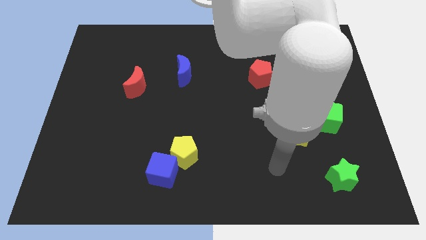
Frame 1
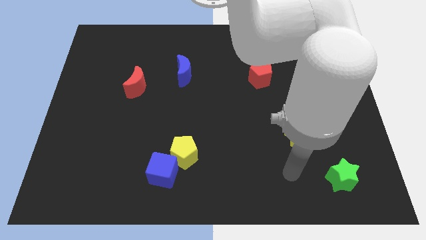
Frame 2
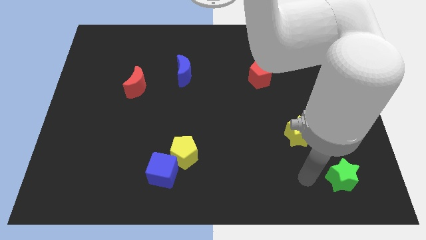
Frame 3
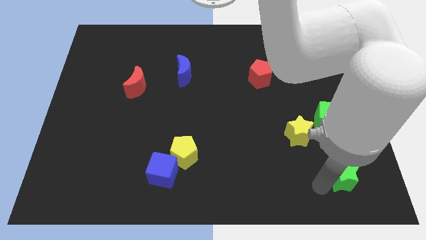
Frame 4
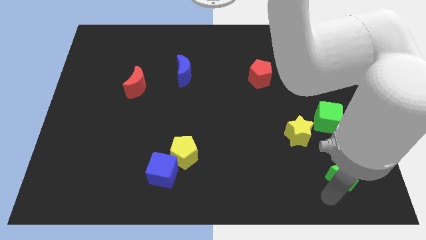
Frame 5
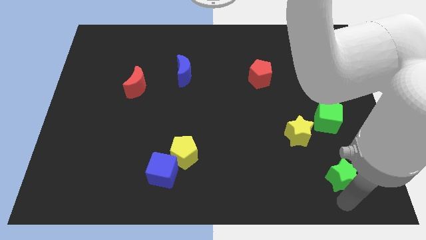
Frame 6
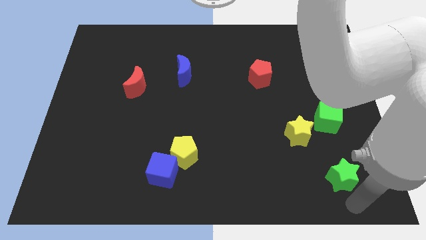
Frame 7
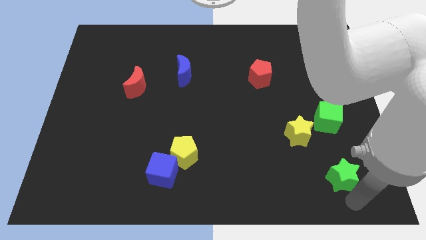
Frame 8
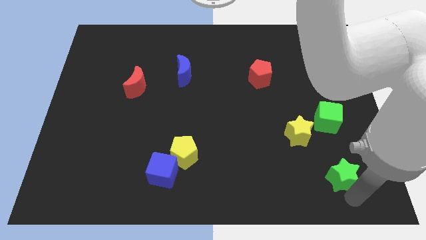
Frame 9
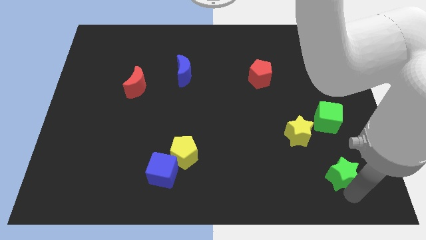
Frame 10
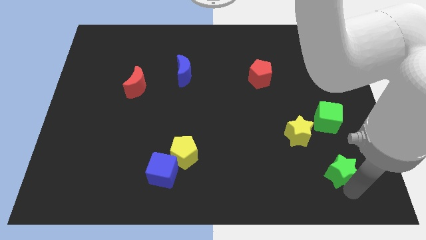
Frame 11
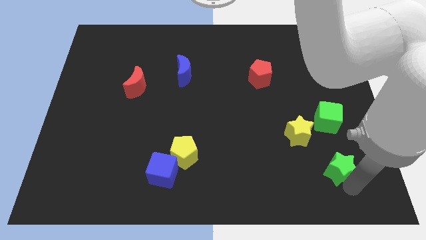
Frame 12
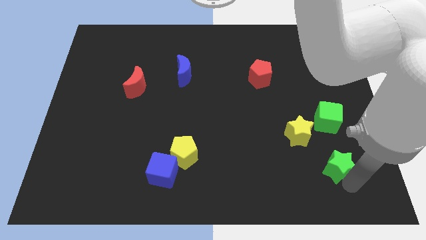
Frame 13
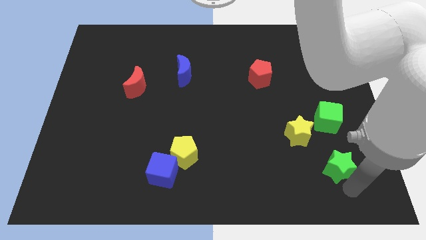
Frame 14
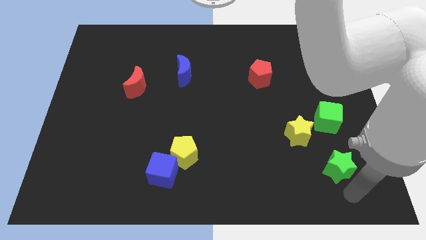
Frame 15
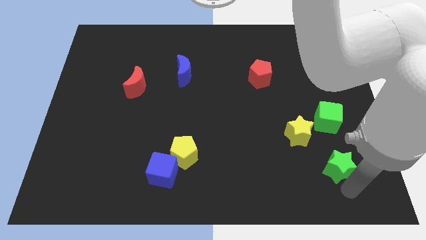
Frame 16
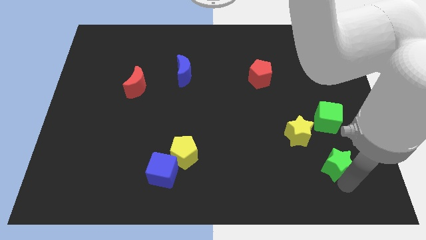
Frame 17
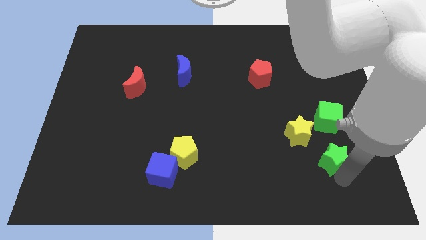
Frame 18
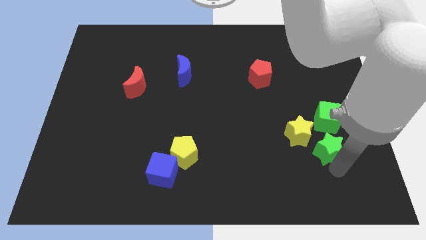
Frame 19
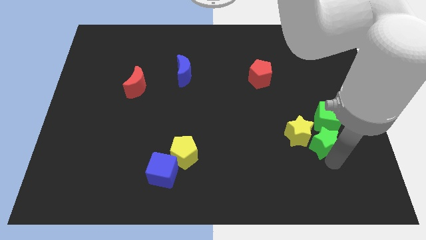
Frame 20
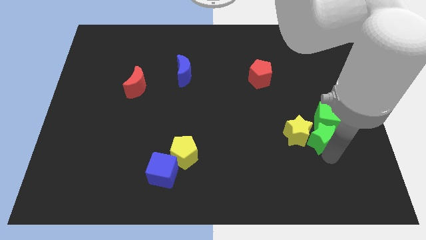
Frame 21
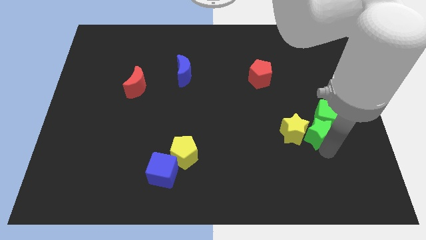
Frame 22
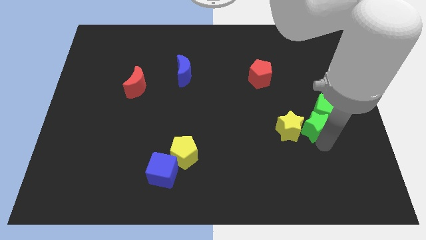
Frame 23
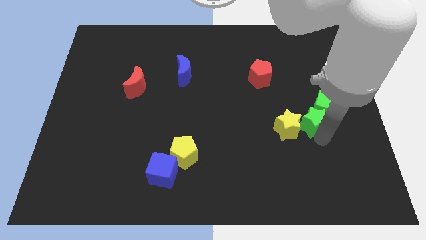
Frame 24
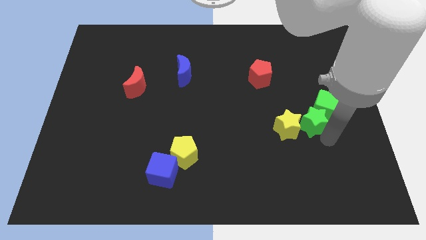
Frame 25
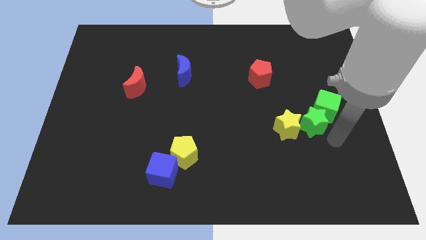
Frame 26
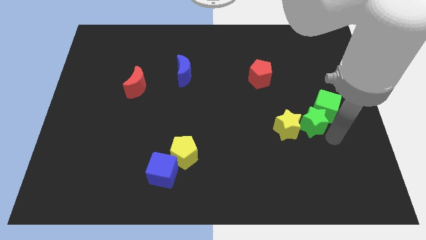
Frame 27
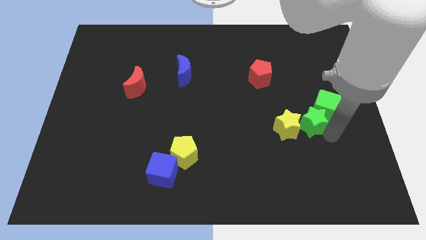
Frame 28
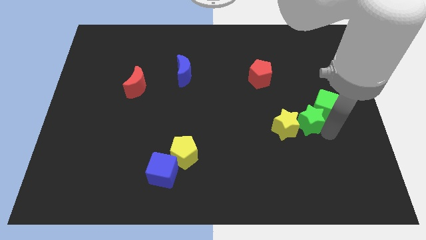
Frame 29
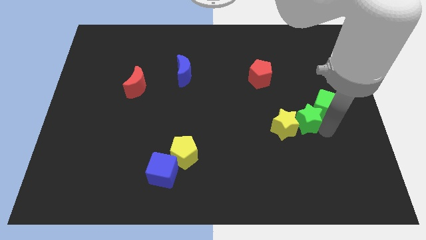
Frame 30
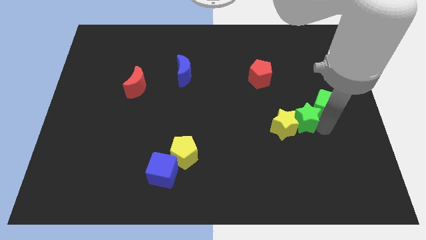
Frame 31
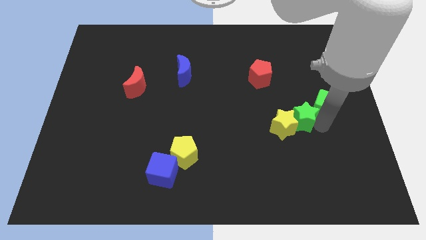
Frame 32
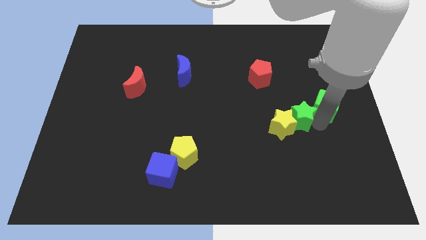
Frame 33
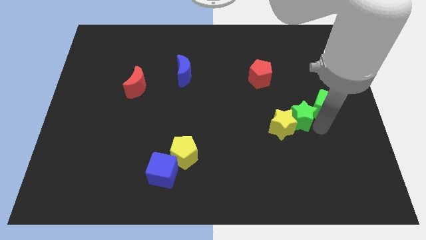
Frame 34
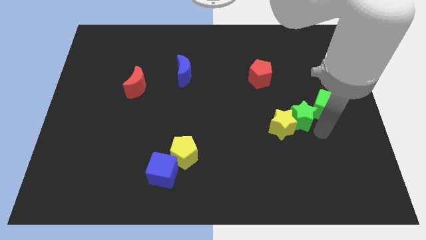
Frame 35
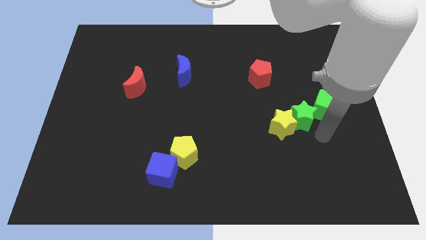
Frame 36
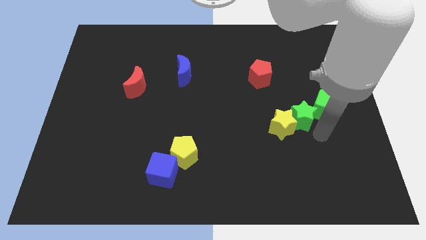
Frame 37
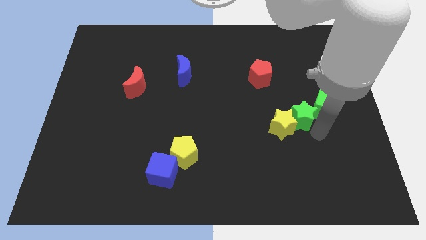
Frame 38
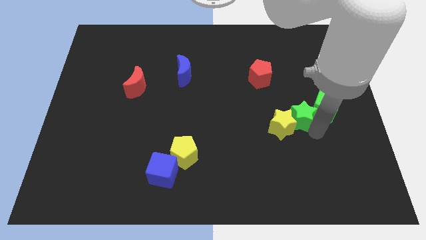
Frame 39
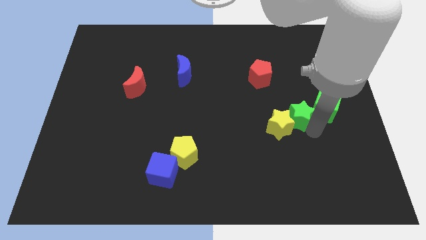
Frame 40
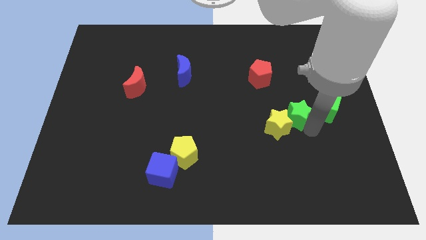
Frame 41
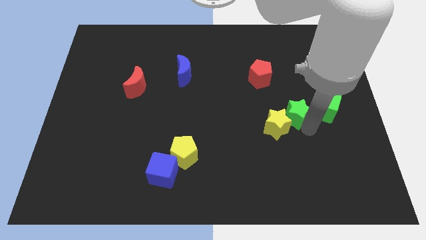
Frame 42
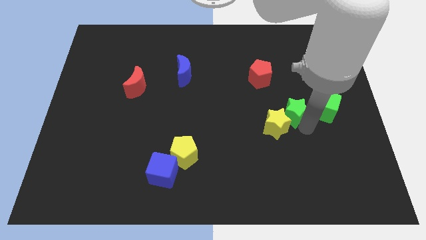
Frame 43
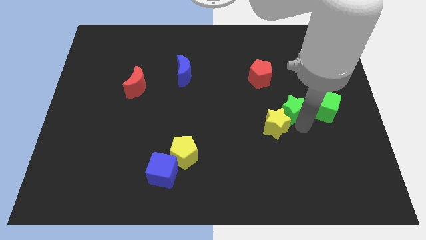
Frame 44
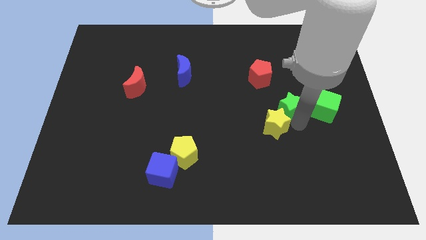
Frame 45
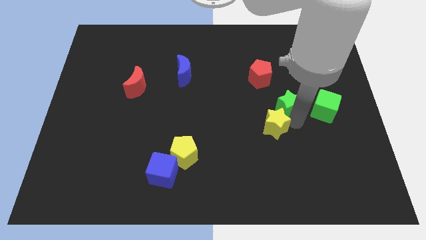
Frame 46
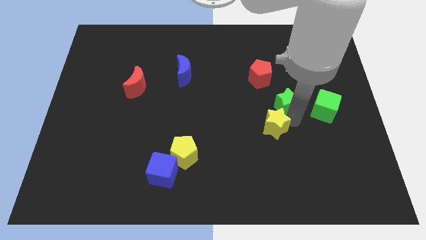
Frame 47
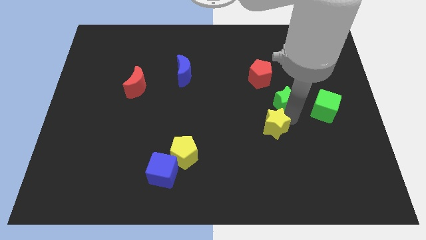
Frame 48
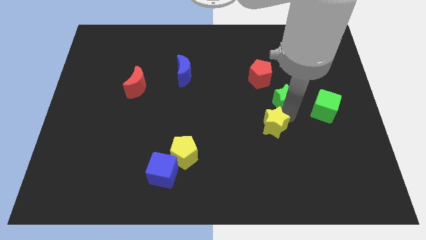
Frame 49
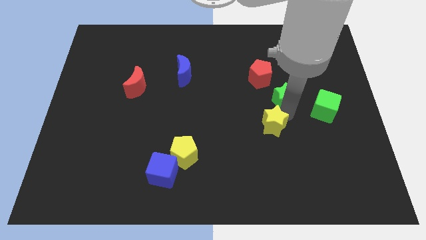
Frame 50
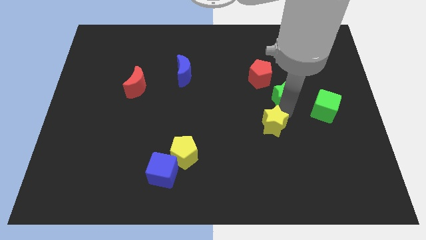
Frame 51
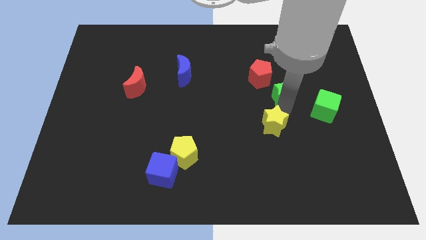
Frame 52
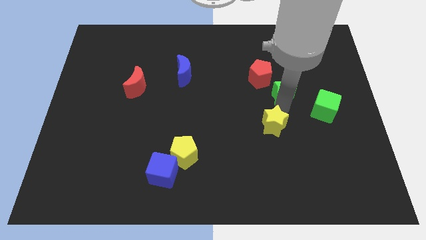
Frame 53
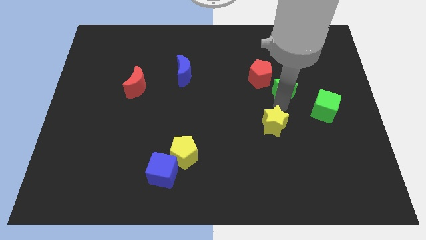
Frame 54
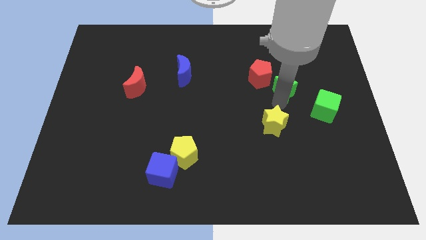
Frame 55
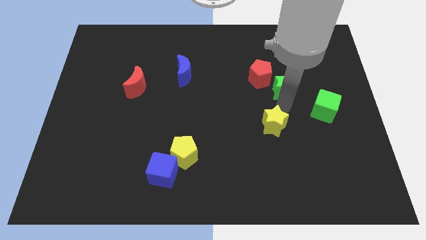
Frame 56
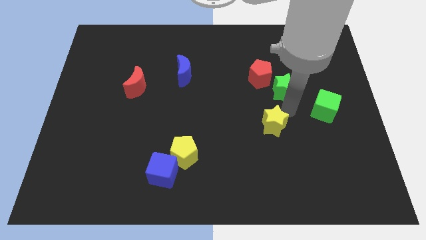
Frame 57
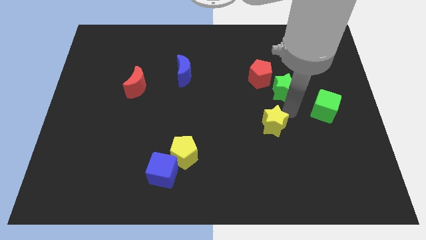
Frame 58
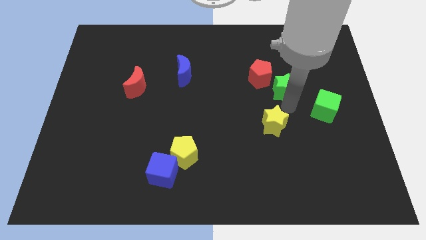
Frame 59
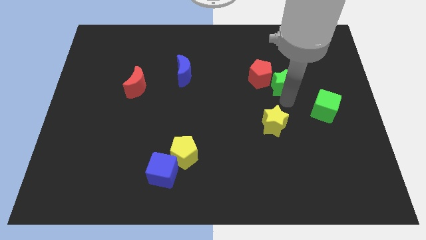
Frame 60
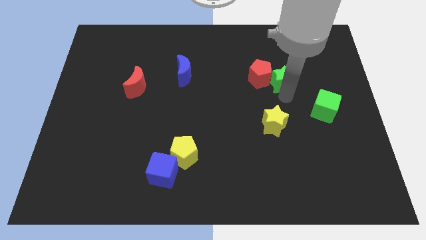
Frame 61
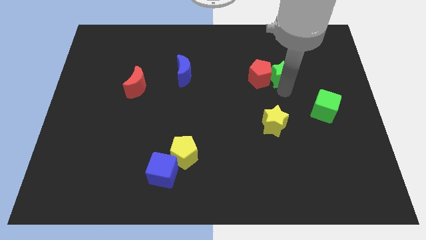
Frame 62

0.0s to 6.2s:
move the green star diagonally up and to the right of the red pentagon
